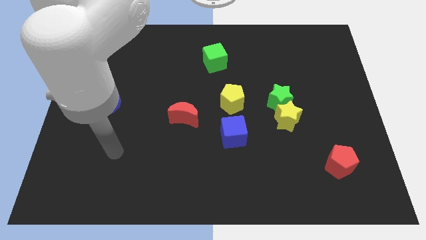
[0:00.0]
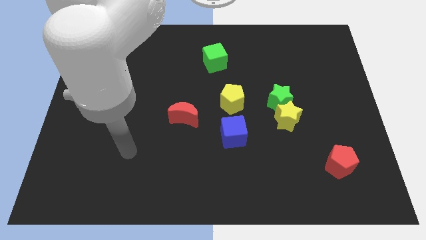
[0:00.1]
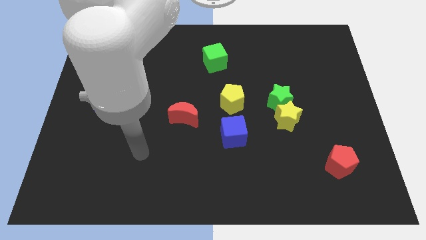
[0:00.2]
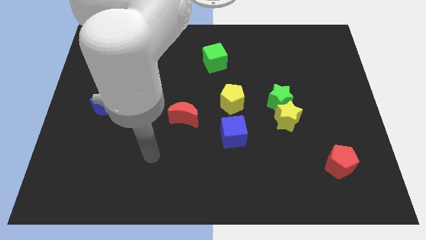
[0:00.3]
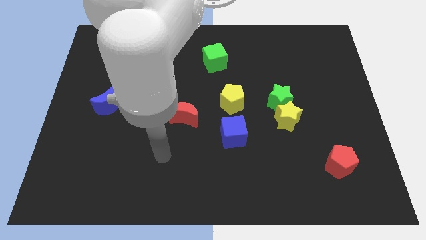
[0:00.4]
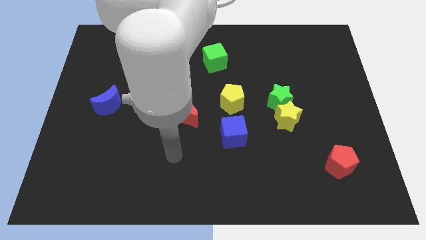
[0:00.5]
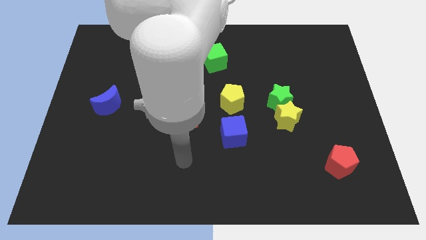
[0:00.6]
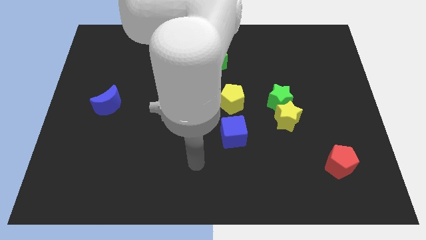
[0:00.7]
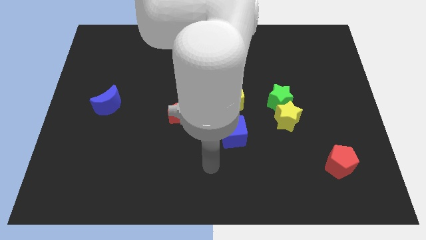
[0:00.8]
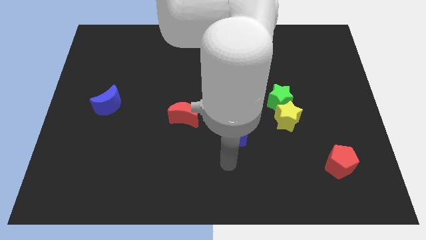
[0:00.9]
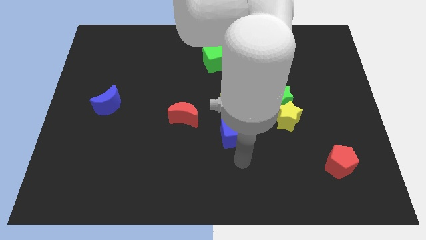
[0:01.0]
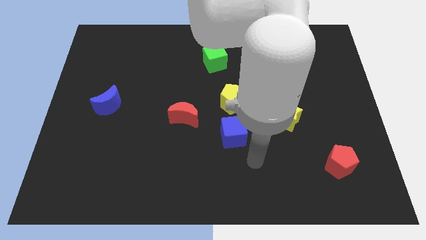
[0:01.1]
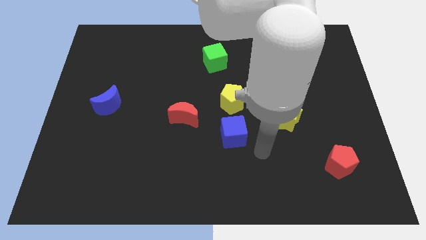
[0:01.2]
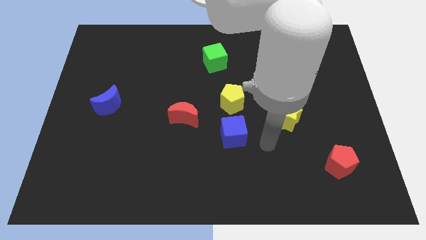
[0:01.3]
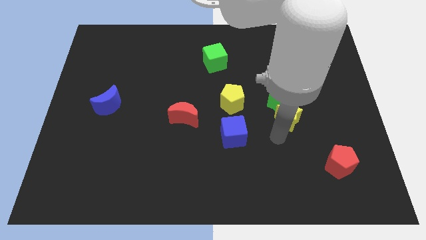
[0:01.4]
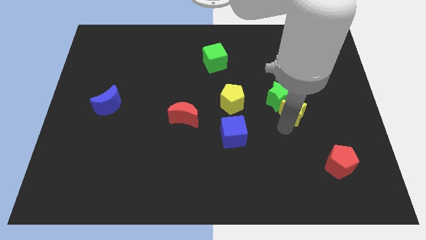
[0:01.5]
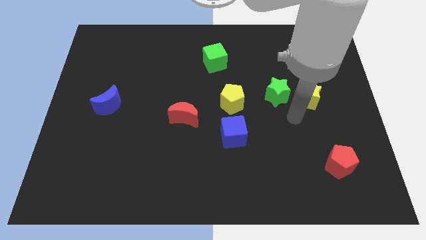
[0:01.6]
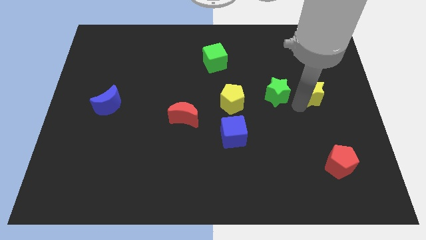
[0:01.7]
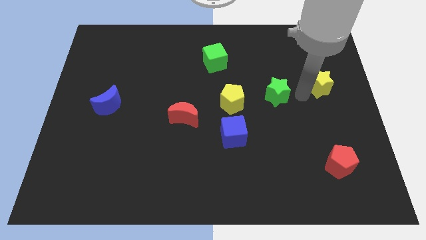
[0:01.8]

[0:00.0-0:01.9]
pull the green star apart from the yellow star

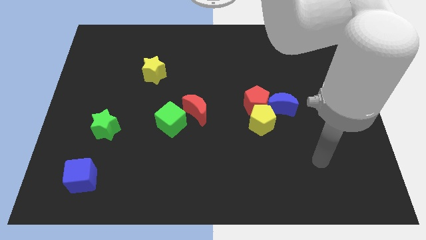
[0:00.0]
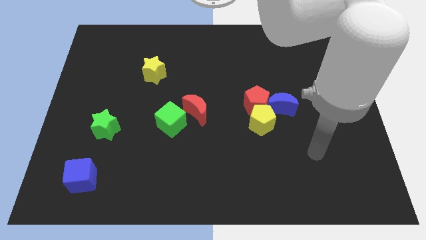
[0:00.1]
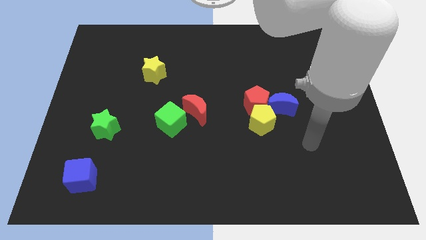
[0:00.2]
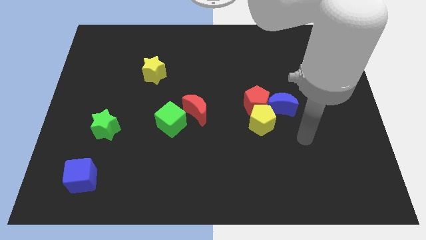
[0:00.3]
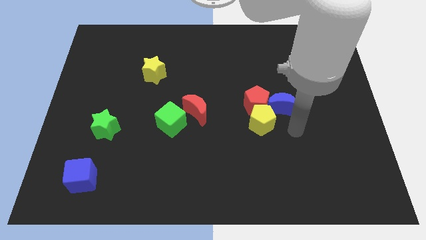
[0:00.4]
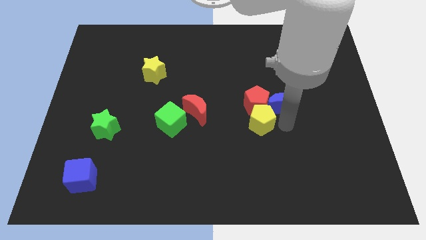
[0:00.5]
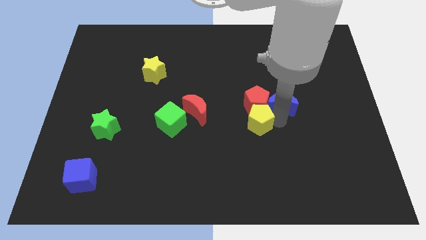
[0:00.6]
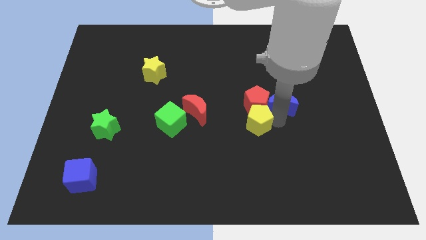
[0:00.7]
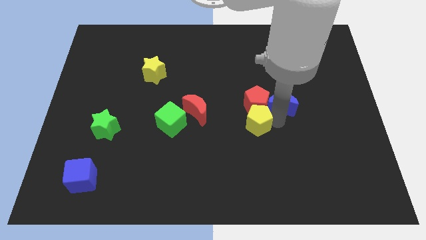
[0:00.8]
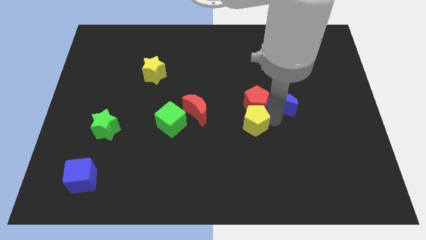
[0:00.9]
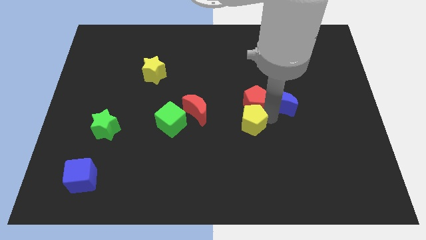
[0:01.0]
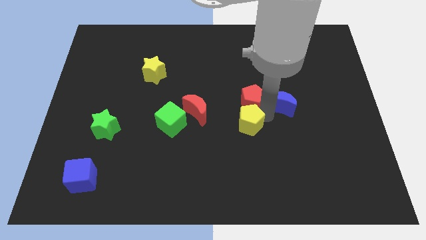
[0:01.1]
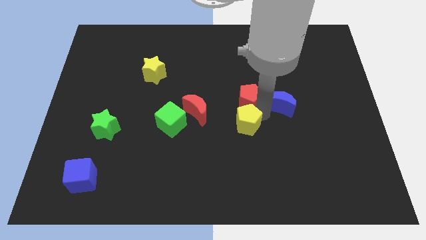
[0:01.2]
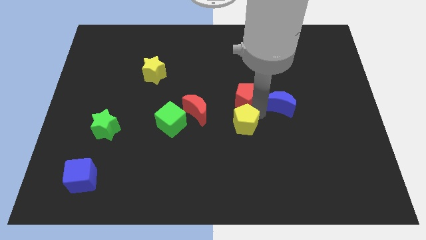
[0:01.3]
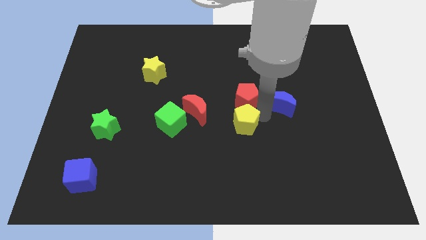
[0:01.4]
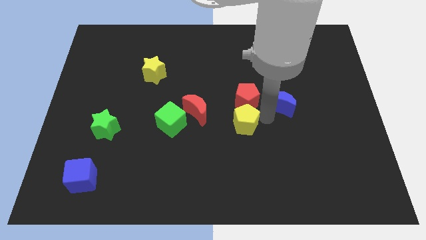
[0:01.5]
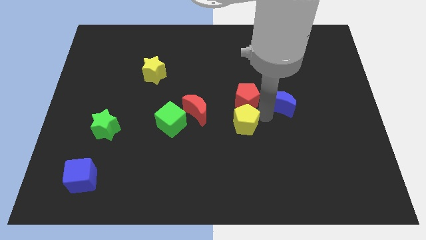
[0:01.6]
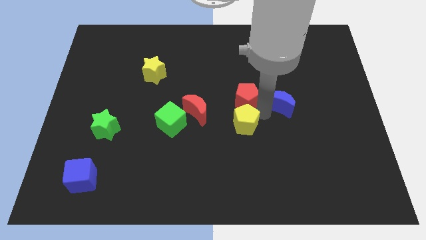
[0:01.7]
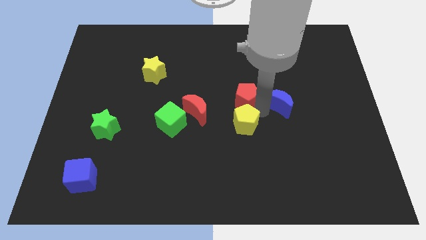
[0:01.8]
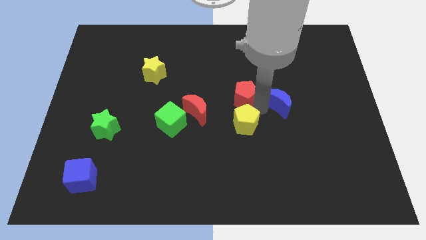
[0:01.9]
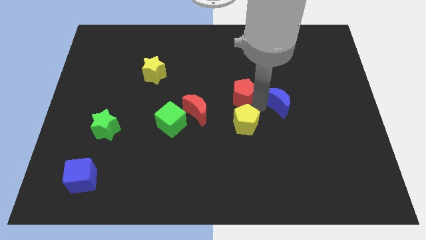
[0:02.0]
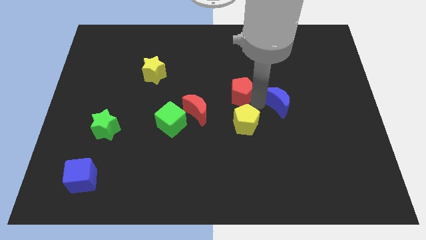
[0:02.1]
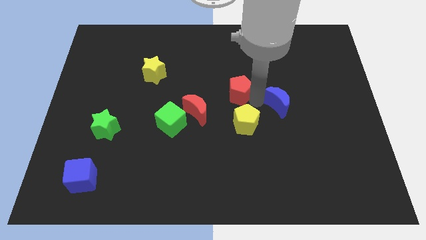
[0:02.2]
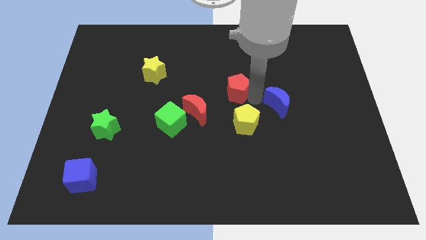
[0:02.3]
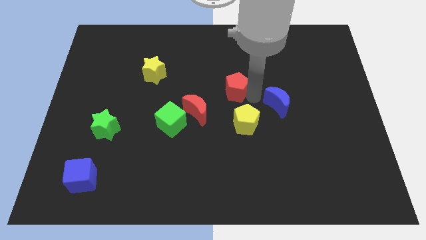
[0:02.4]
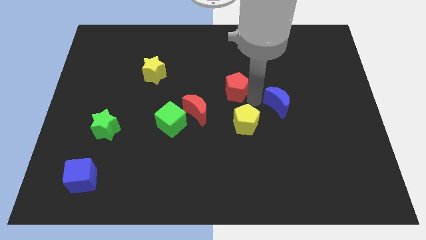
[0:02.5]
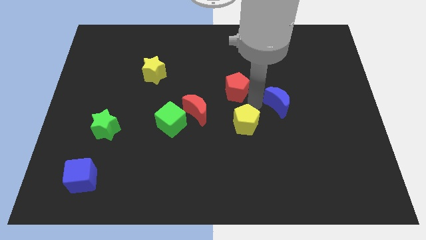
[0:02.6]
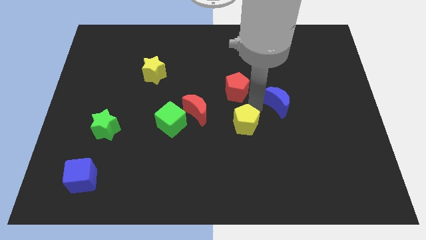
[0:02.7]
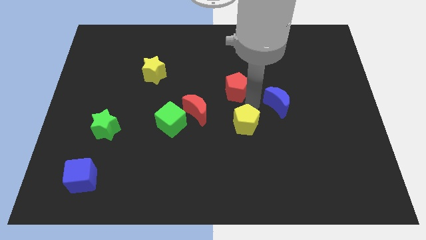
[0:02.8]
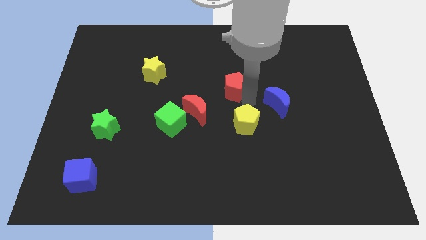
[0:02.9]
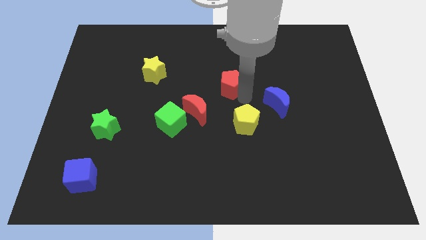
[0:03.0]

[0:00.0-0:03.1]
move the red pentagon away from the yellow pentagon and blue moon

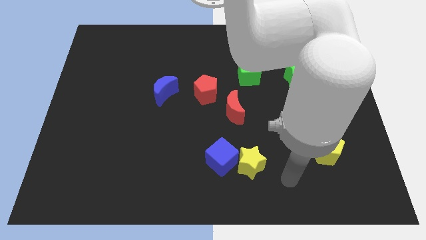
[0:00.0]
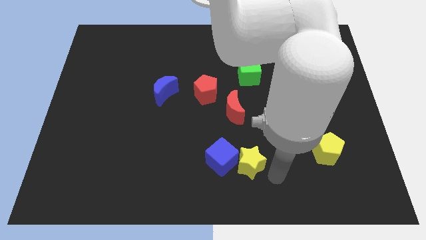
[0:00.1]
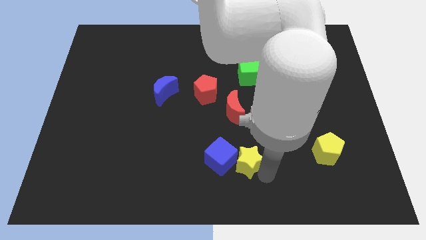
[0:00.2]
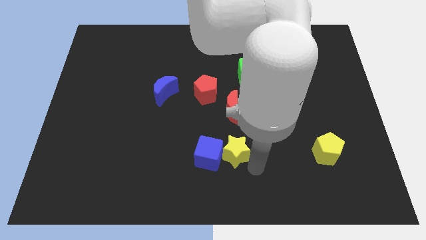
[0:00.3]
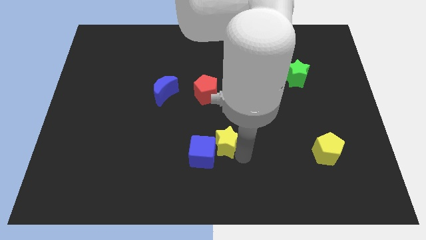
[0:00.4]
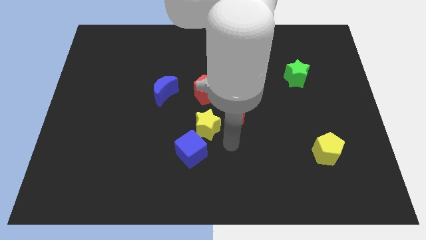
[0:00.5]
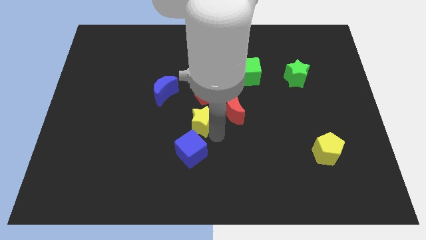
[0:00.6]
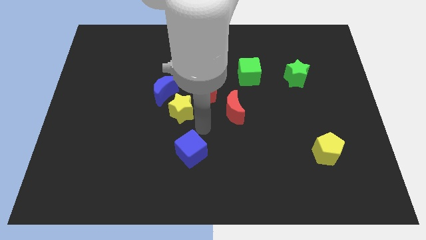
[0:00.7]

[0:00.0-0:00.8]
move the blue cube away from the yellow star

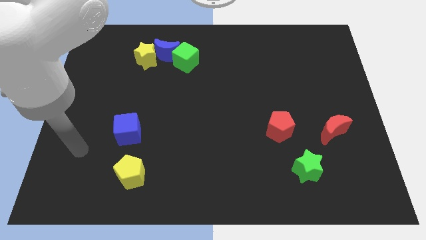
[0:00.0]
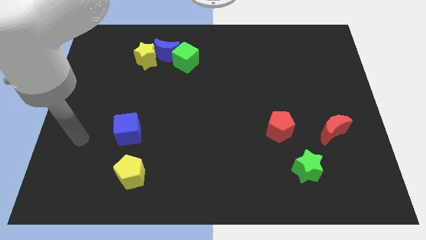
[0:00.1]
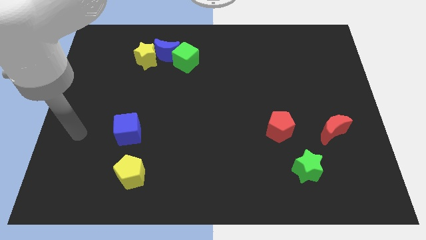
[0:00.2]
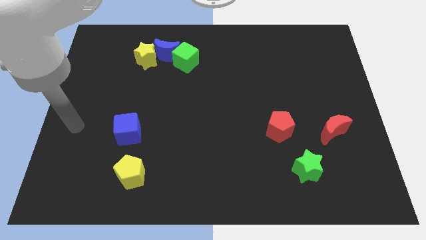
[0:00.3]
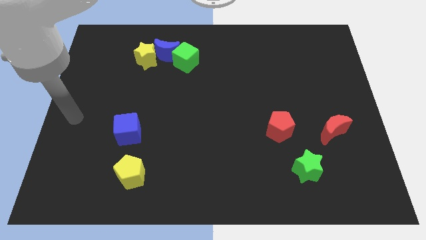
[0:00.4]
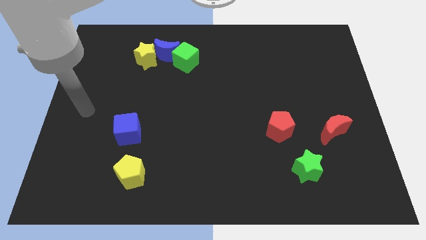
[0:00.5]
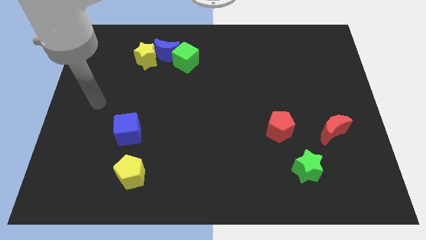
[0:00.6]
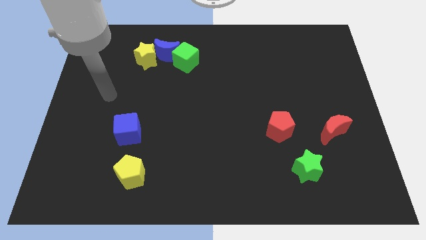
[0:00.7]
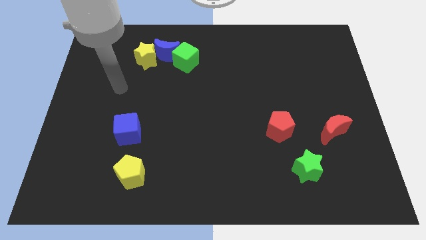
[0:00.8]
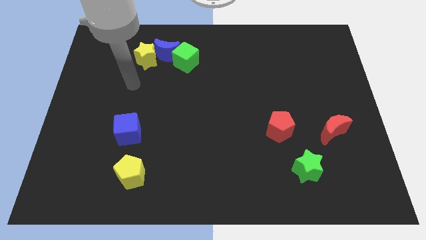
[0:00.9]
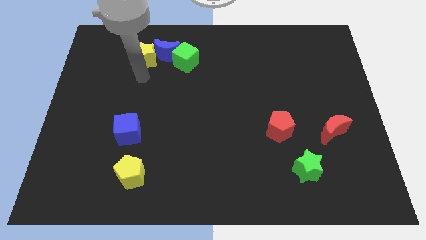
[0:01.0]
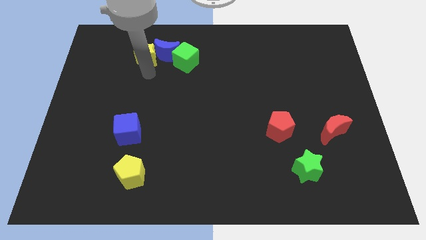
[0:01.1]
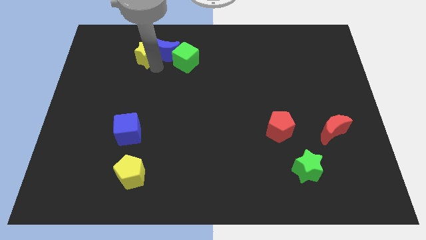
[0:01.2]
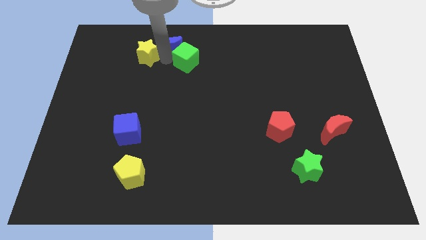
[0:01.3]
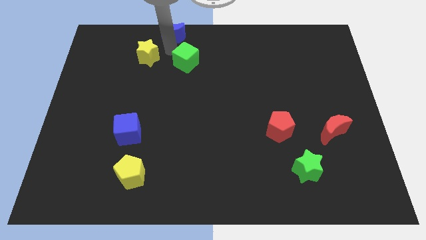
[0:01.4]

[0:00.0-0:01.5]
separate the yellow star from the blue moon

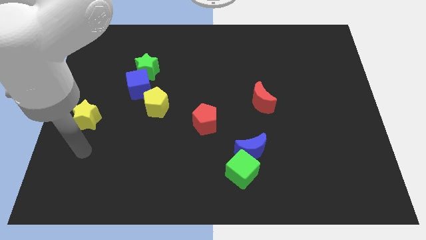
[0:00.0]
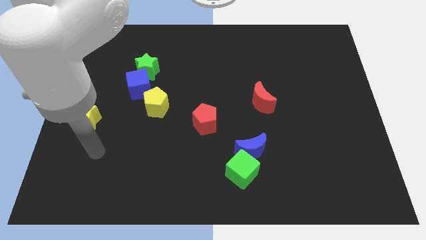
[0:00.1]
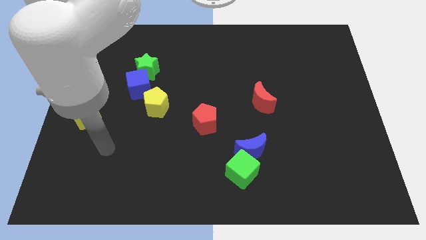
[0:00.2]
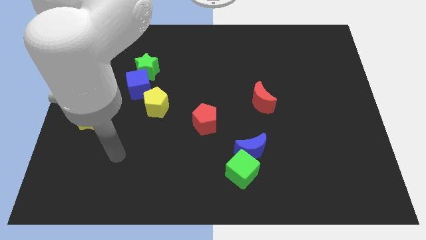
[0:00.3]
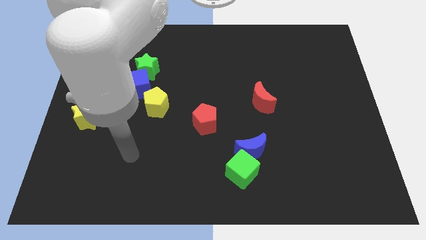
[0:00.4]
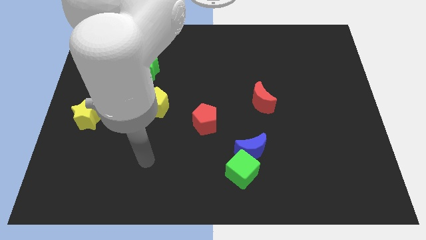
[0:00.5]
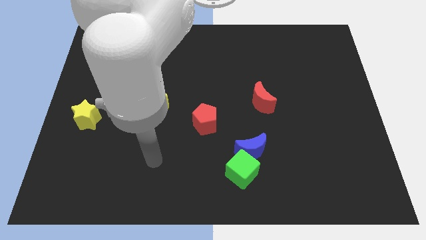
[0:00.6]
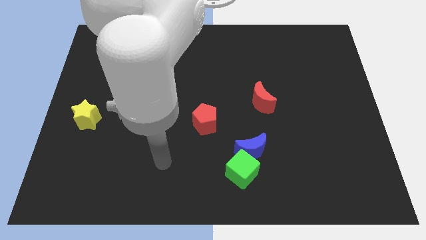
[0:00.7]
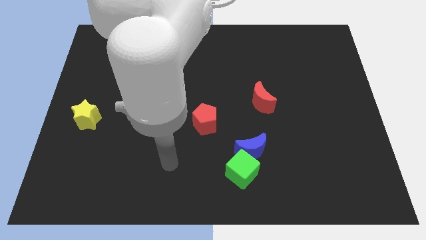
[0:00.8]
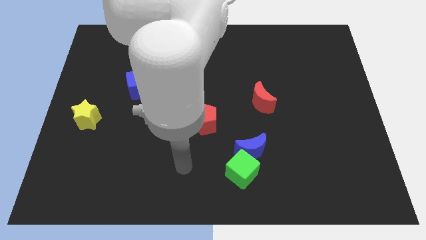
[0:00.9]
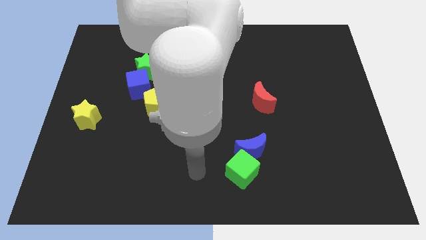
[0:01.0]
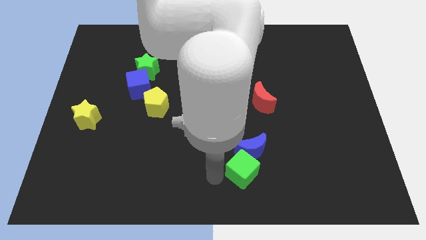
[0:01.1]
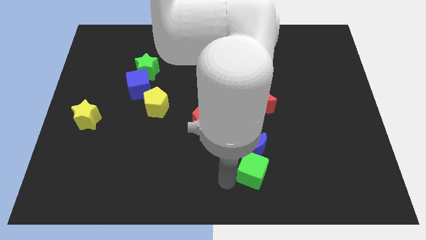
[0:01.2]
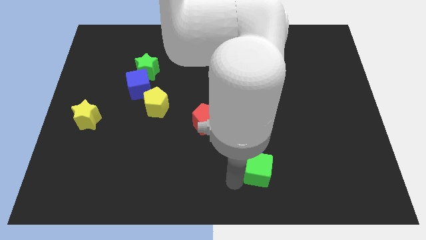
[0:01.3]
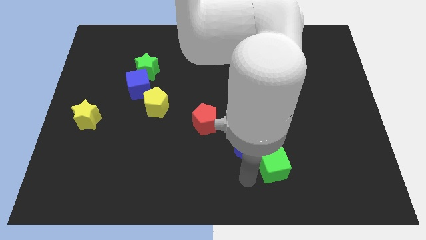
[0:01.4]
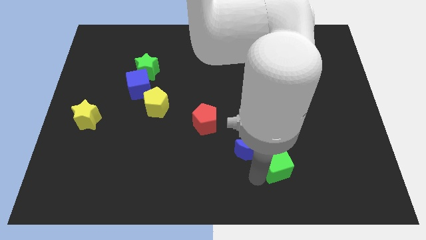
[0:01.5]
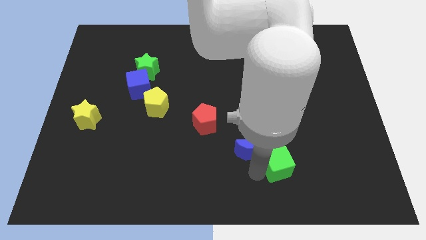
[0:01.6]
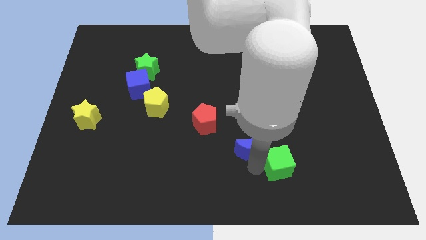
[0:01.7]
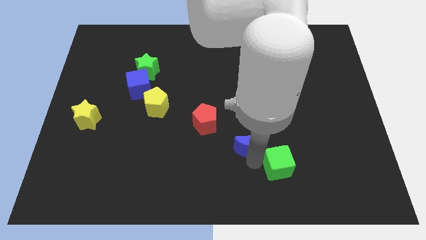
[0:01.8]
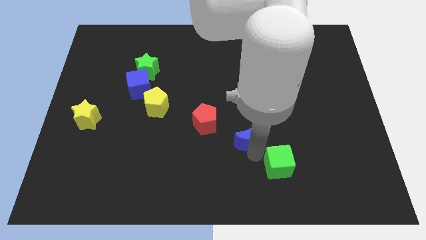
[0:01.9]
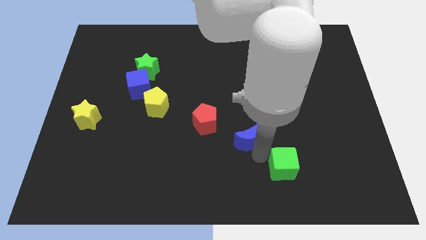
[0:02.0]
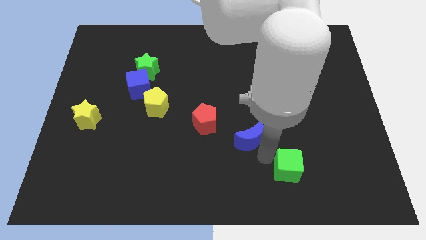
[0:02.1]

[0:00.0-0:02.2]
move the blue moon away from the green cube
